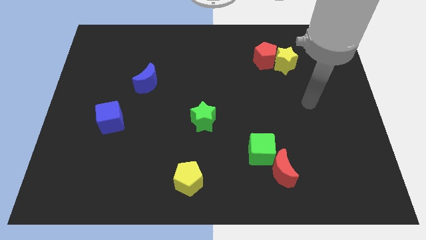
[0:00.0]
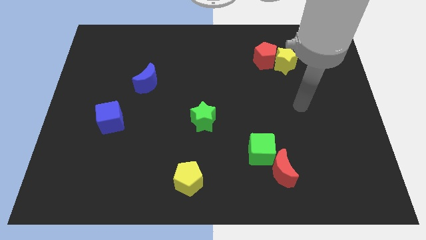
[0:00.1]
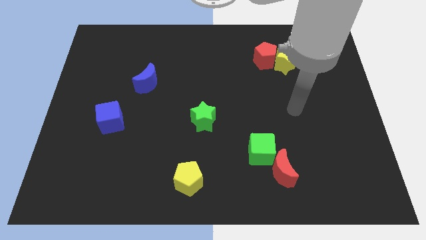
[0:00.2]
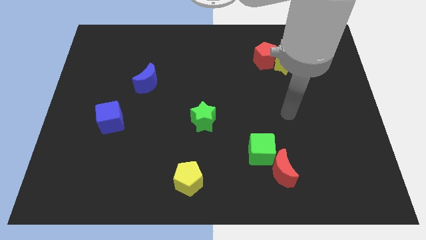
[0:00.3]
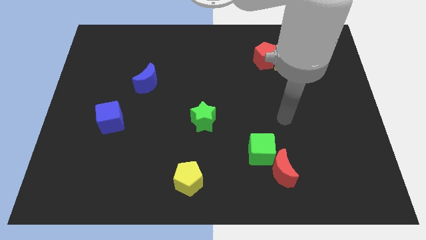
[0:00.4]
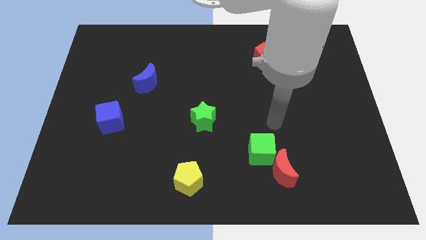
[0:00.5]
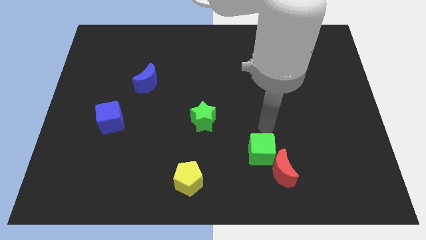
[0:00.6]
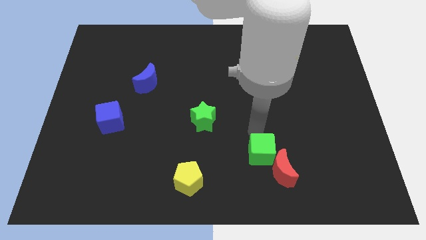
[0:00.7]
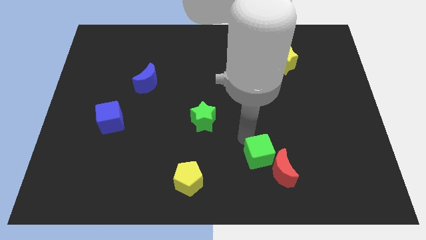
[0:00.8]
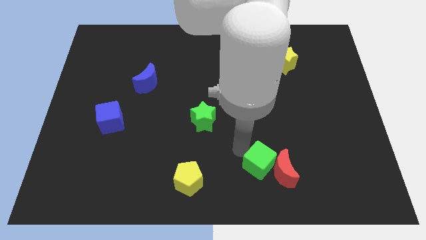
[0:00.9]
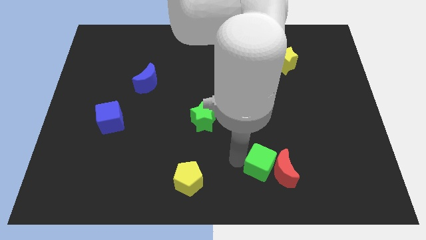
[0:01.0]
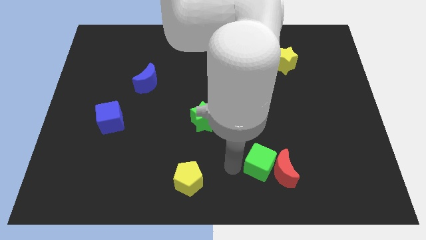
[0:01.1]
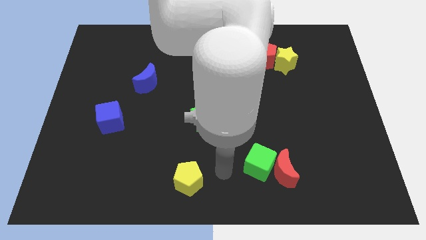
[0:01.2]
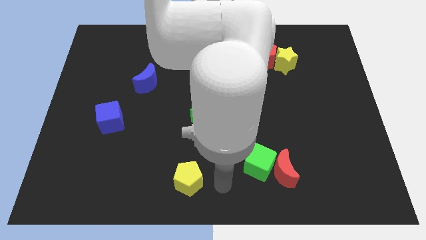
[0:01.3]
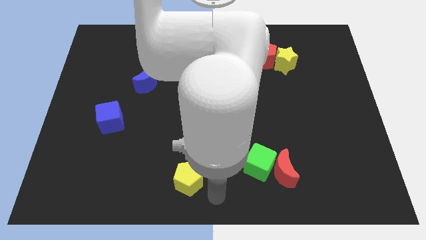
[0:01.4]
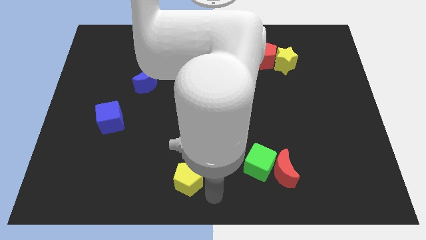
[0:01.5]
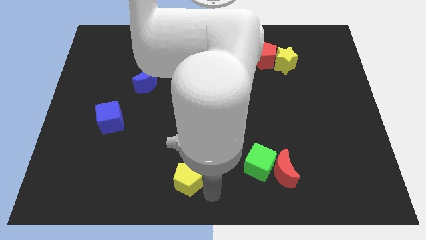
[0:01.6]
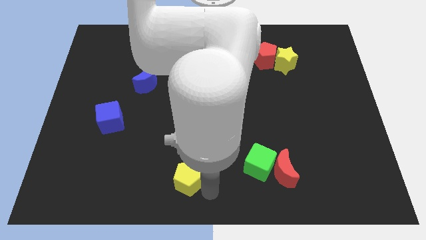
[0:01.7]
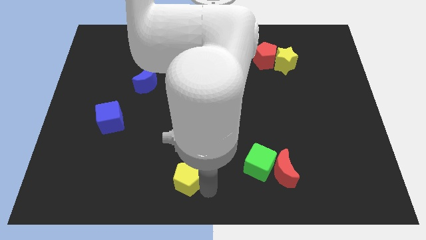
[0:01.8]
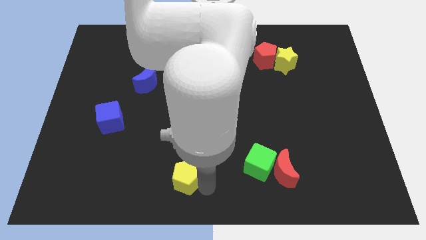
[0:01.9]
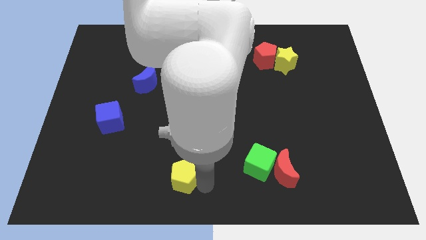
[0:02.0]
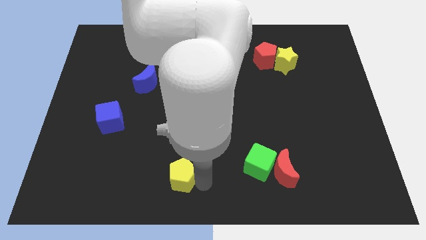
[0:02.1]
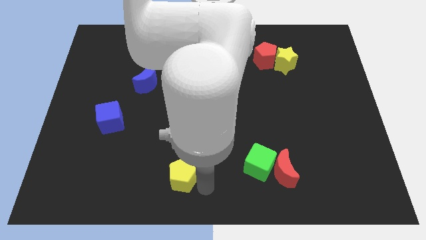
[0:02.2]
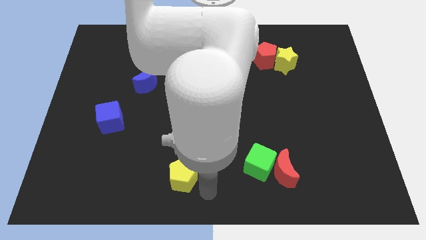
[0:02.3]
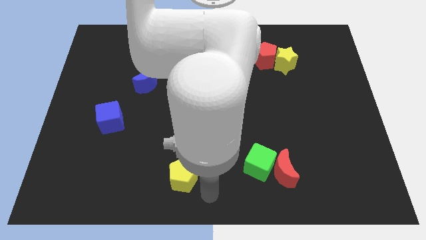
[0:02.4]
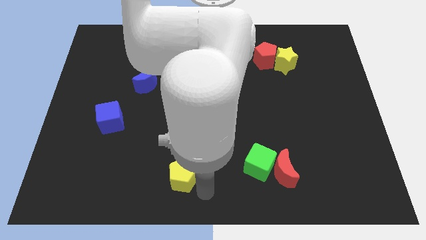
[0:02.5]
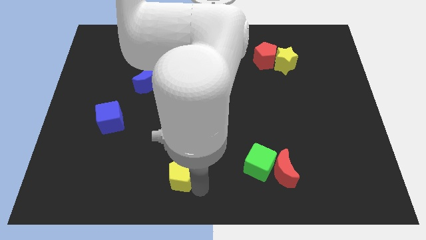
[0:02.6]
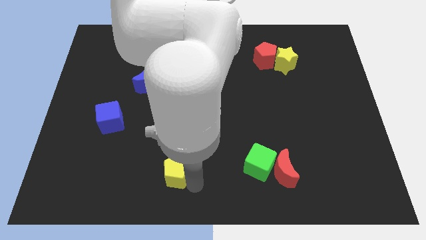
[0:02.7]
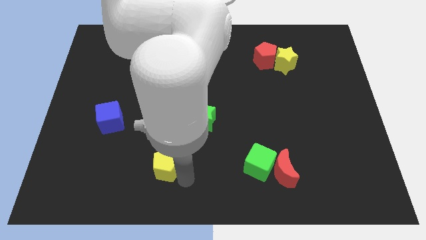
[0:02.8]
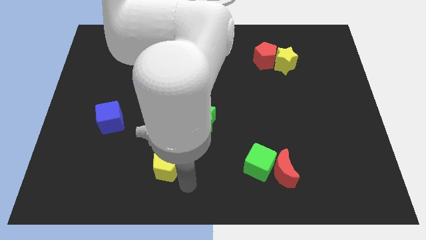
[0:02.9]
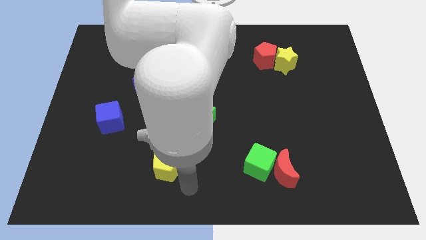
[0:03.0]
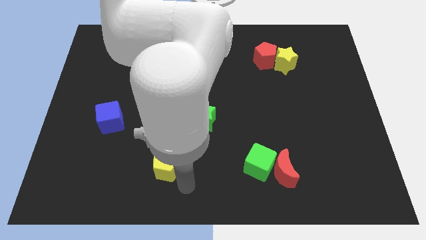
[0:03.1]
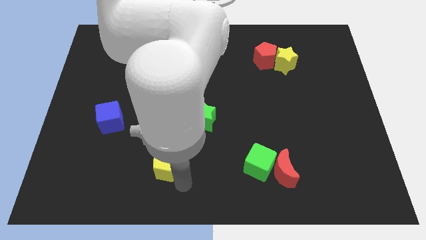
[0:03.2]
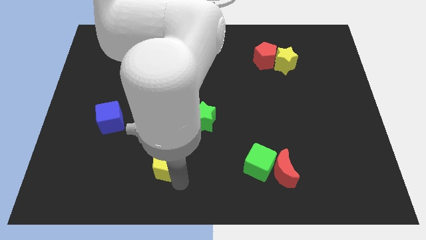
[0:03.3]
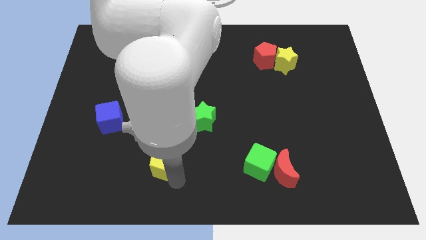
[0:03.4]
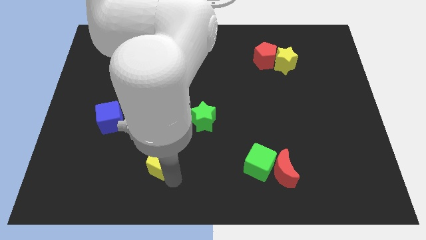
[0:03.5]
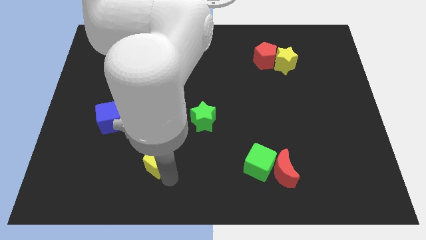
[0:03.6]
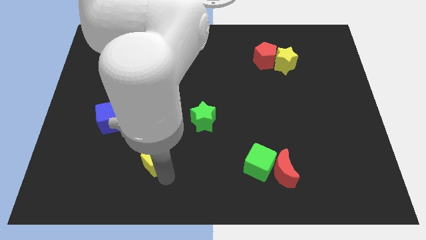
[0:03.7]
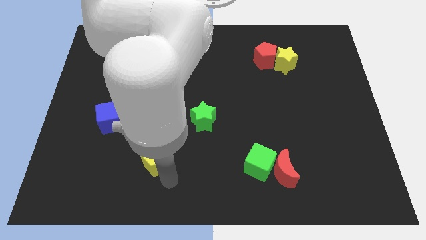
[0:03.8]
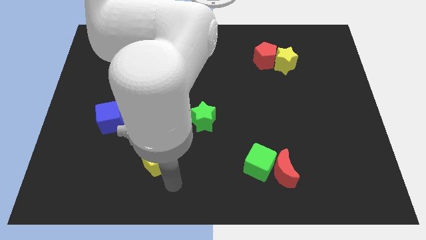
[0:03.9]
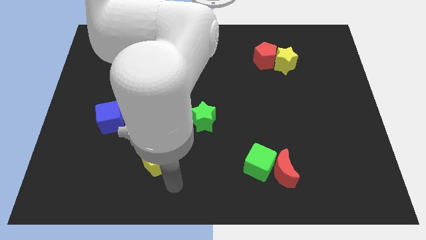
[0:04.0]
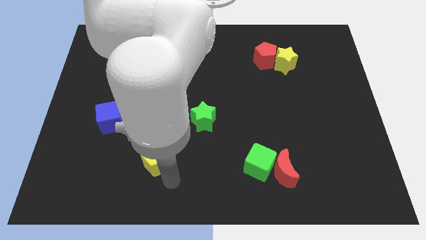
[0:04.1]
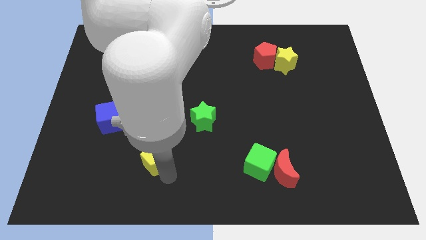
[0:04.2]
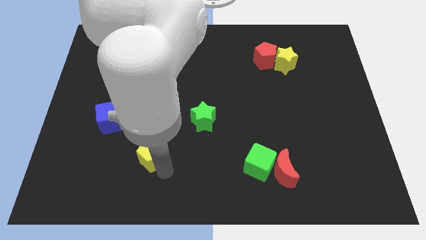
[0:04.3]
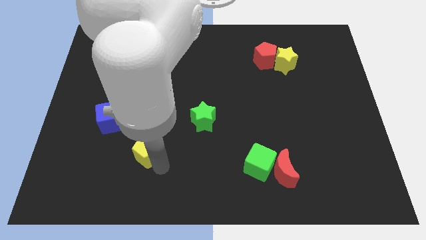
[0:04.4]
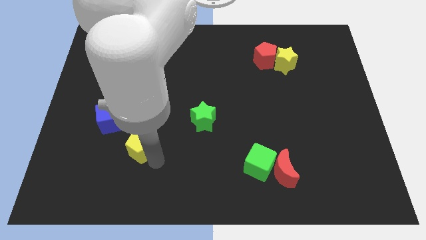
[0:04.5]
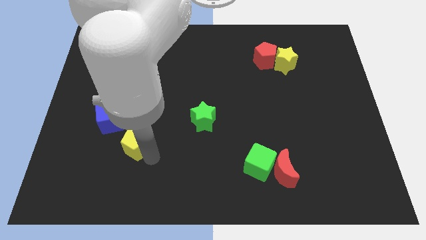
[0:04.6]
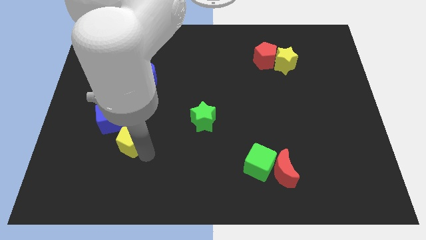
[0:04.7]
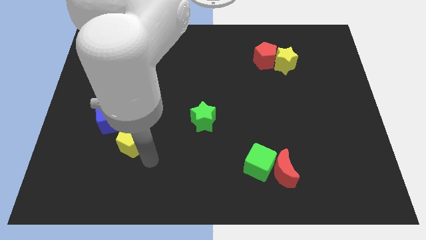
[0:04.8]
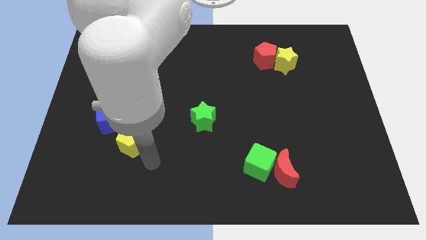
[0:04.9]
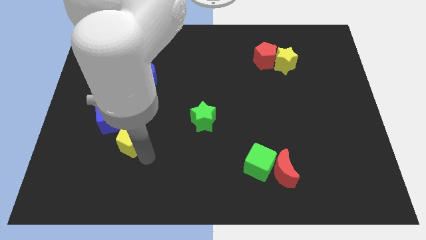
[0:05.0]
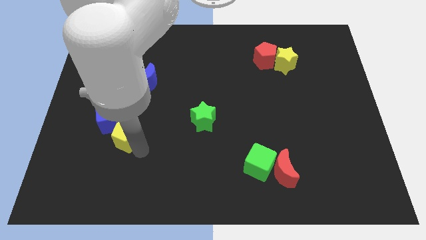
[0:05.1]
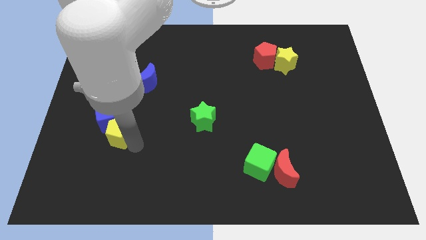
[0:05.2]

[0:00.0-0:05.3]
push the yellow pentagon to the blue cube

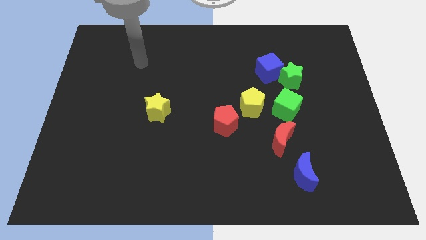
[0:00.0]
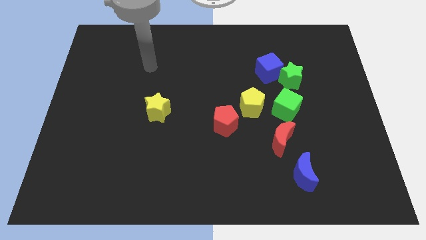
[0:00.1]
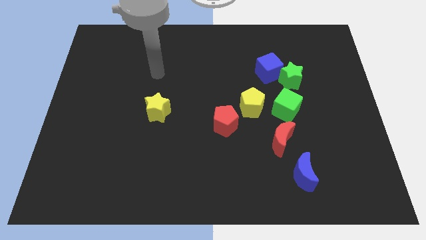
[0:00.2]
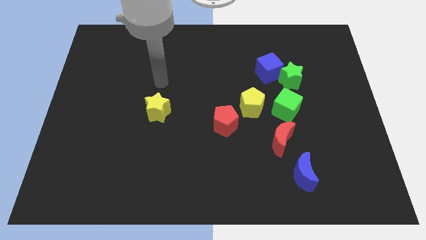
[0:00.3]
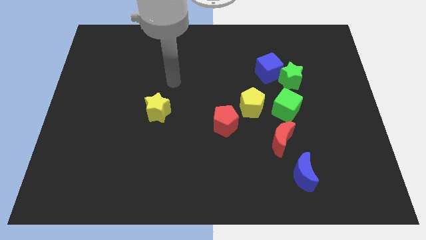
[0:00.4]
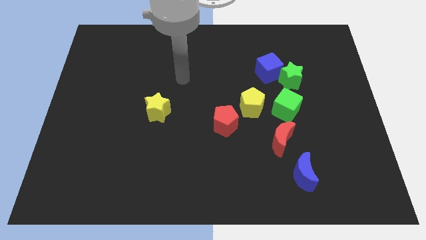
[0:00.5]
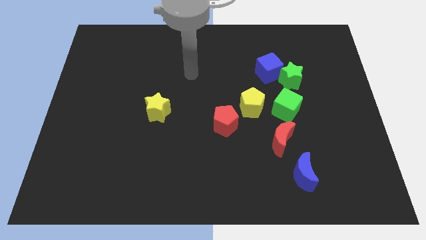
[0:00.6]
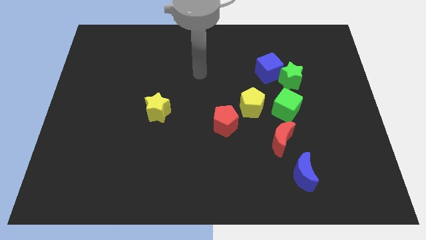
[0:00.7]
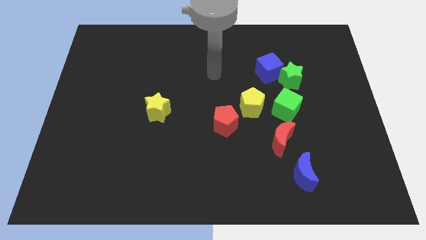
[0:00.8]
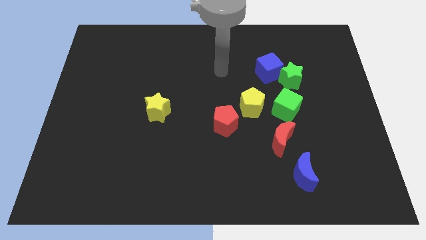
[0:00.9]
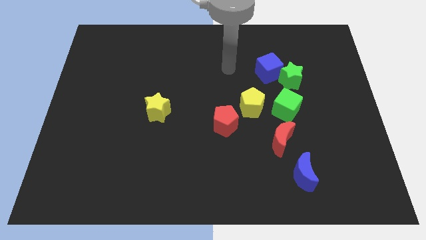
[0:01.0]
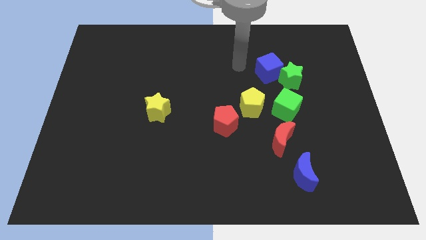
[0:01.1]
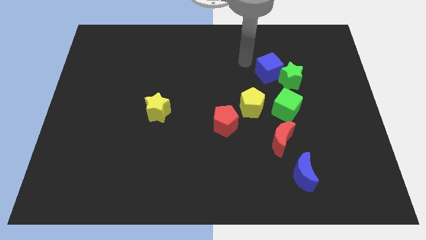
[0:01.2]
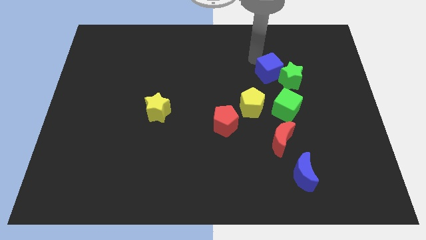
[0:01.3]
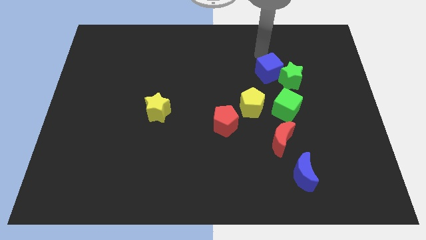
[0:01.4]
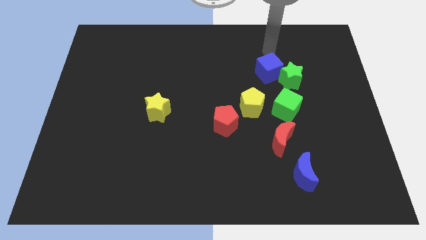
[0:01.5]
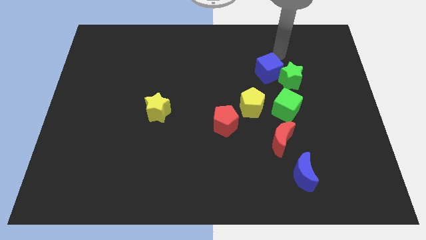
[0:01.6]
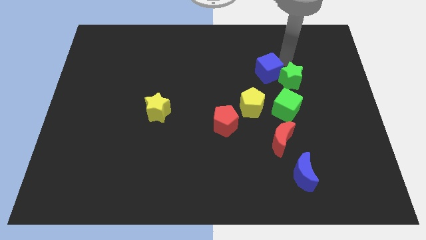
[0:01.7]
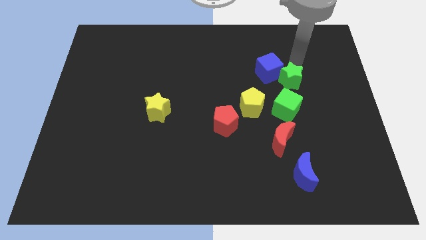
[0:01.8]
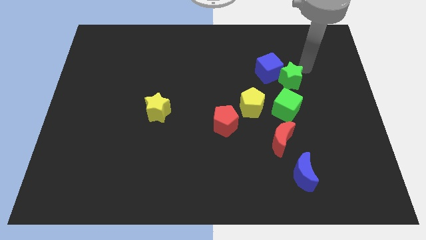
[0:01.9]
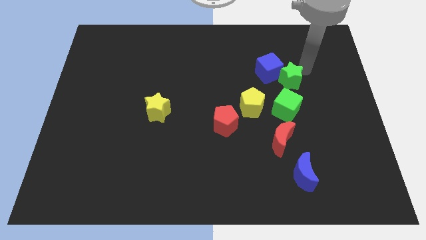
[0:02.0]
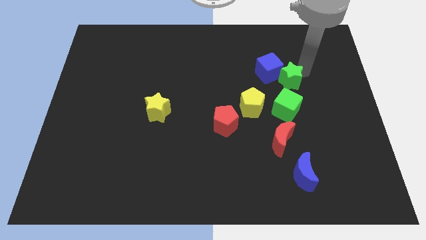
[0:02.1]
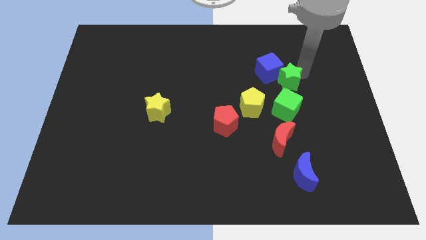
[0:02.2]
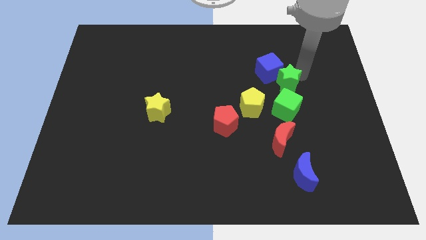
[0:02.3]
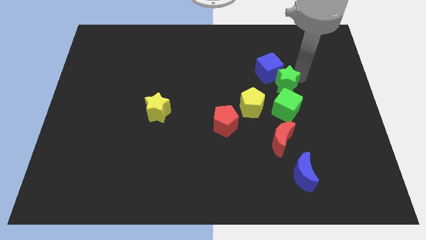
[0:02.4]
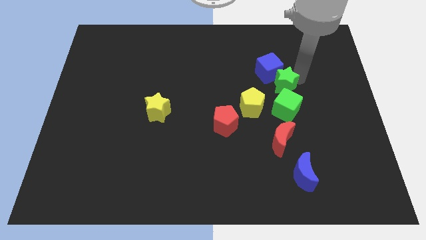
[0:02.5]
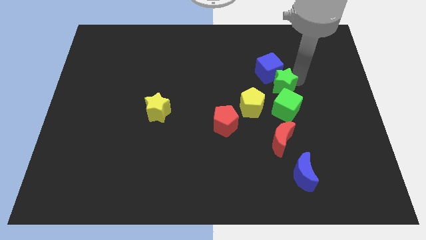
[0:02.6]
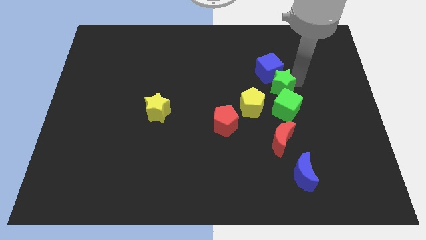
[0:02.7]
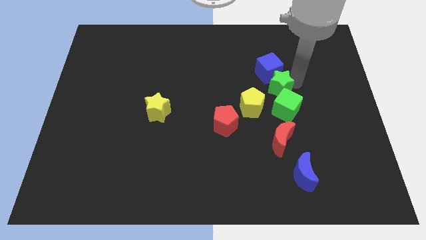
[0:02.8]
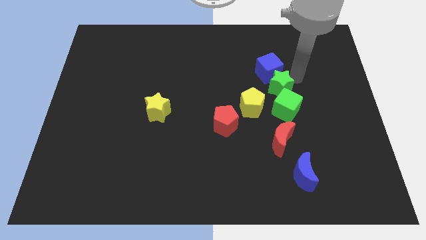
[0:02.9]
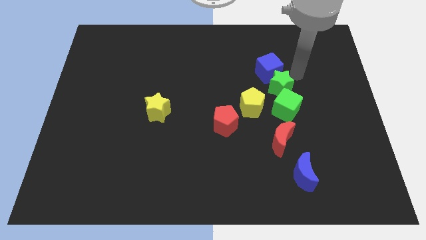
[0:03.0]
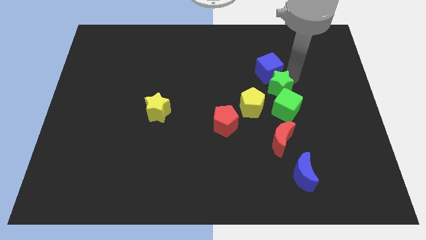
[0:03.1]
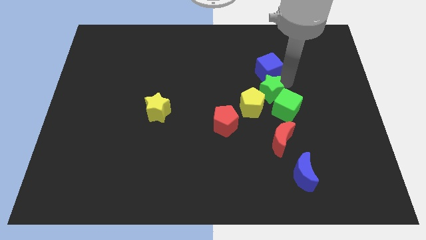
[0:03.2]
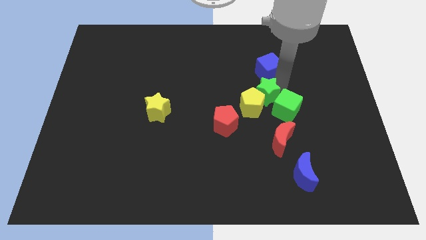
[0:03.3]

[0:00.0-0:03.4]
slide the green star next to the yellow pentagon
